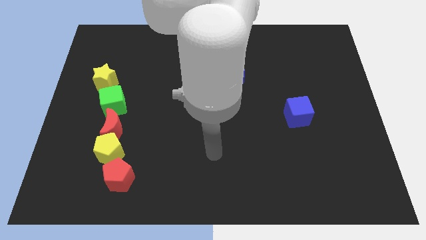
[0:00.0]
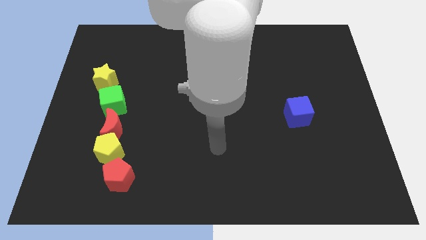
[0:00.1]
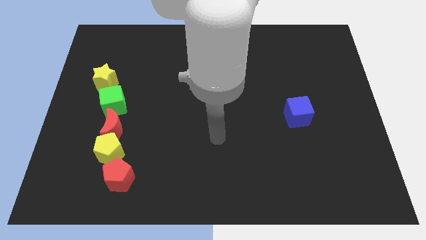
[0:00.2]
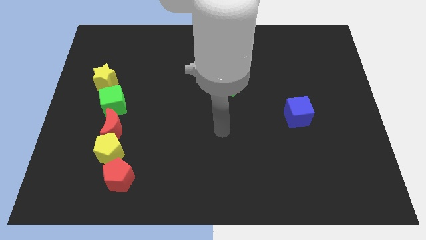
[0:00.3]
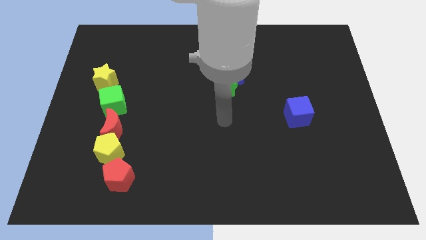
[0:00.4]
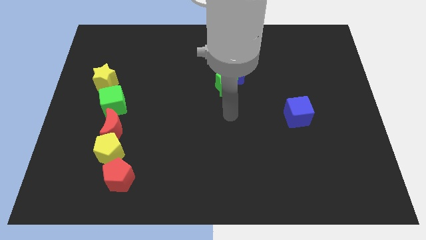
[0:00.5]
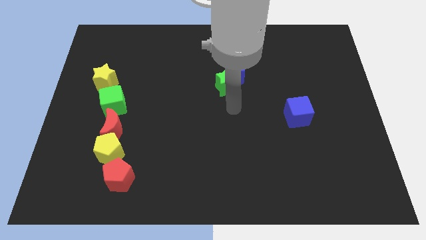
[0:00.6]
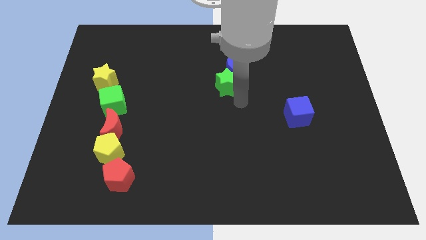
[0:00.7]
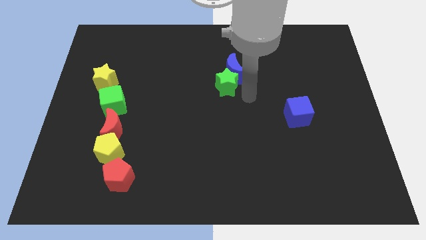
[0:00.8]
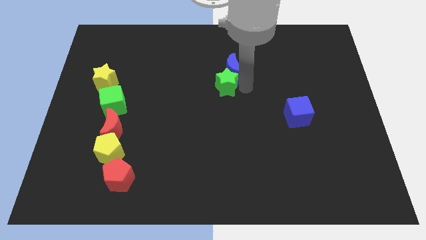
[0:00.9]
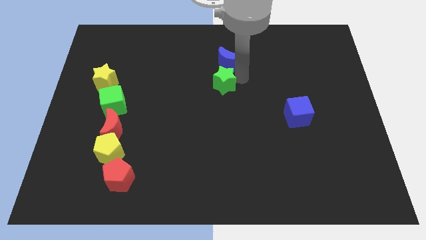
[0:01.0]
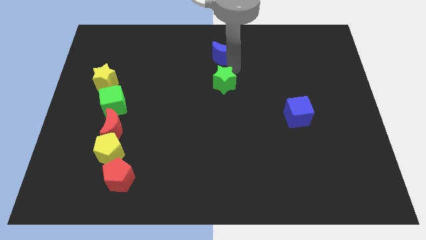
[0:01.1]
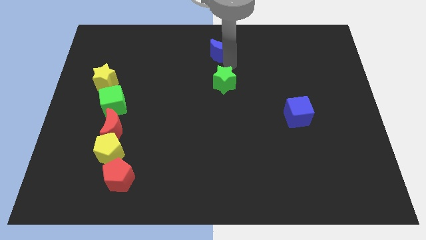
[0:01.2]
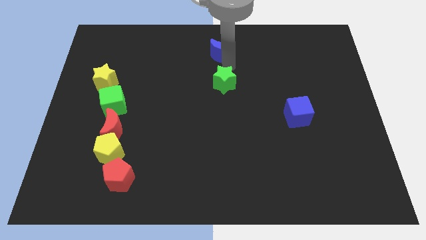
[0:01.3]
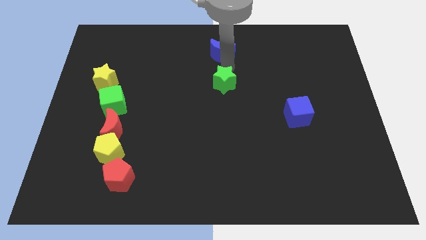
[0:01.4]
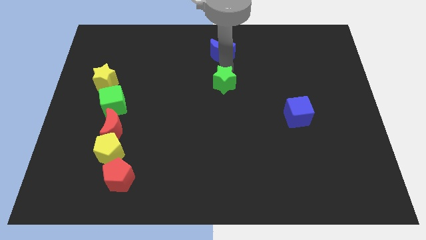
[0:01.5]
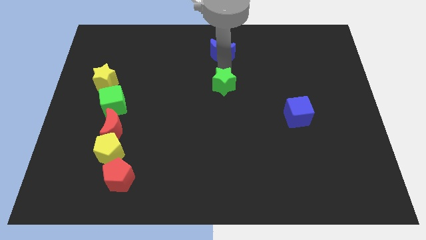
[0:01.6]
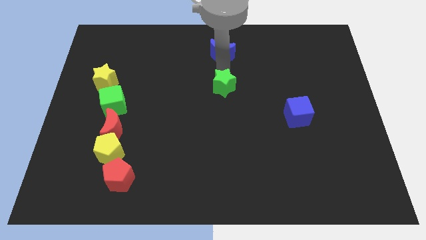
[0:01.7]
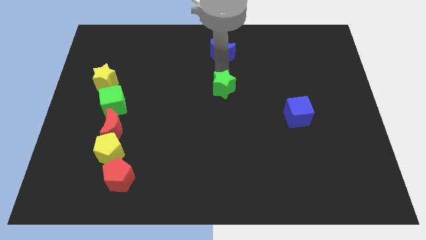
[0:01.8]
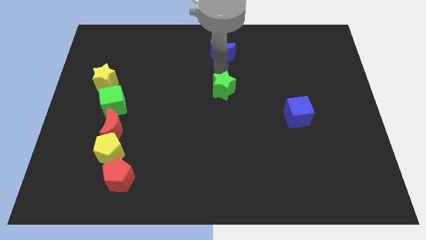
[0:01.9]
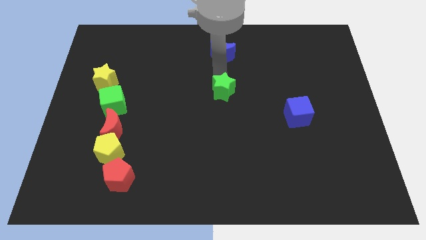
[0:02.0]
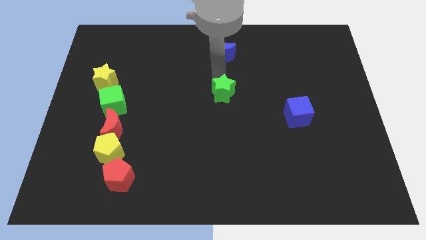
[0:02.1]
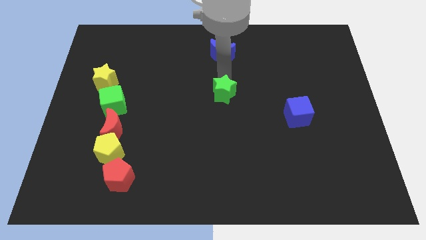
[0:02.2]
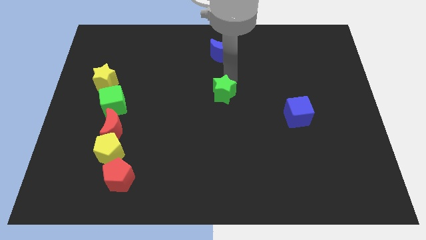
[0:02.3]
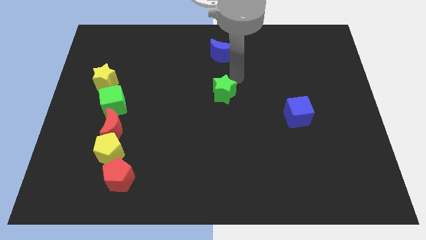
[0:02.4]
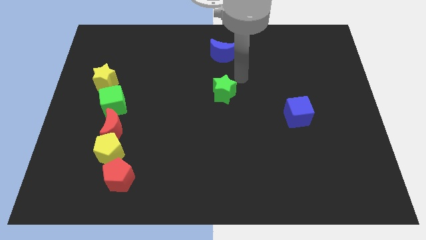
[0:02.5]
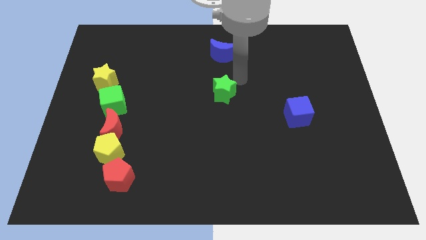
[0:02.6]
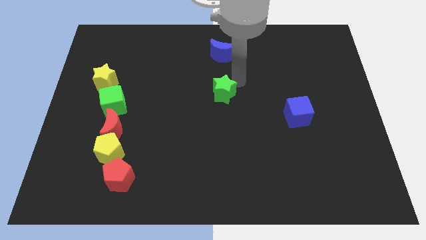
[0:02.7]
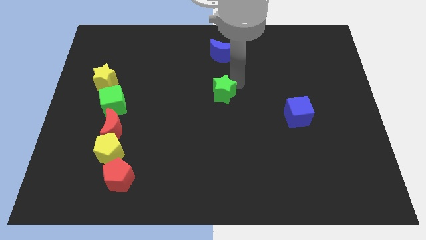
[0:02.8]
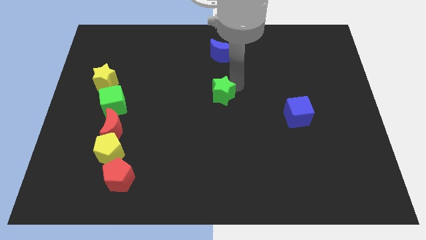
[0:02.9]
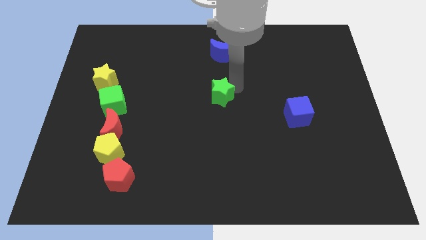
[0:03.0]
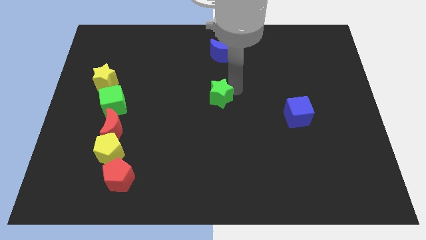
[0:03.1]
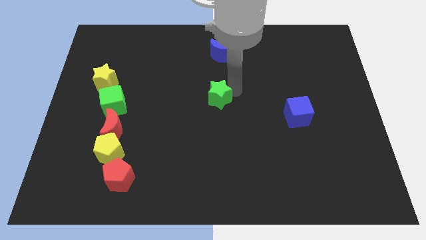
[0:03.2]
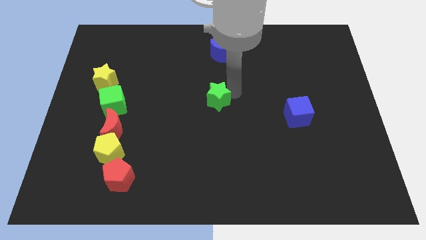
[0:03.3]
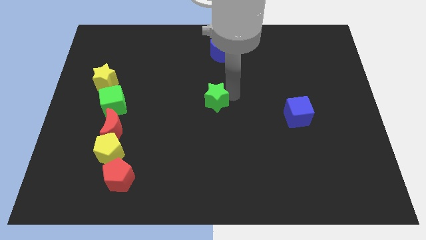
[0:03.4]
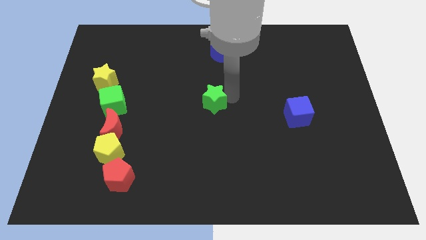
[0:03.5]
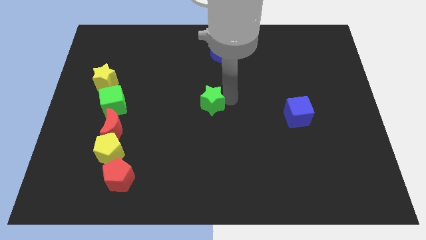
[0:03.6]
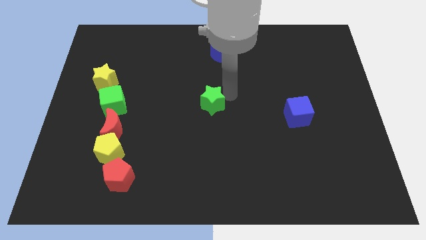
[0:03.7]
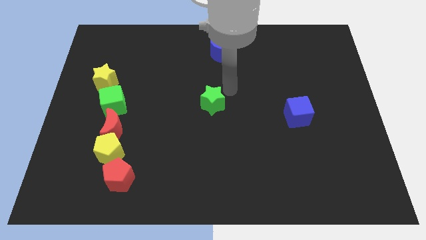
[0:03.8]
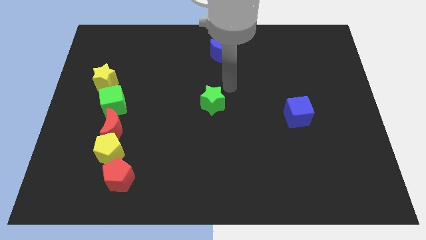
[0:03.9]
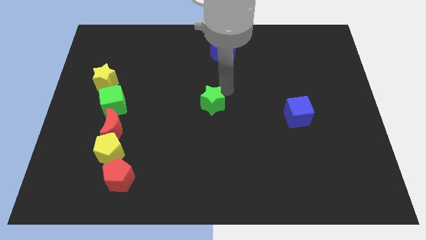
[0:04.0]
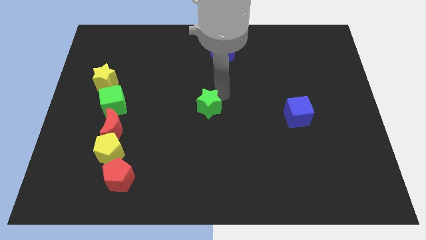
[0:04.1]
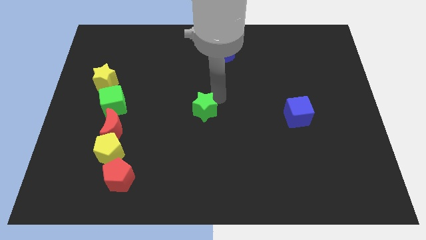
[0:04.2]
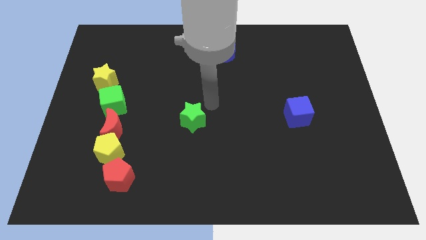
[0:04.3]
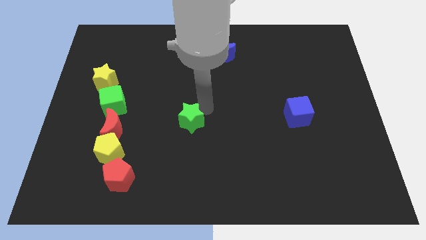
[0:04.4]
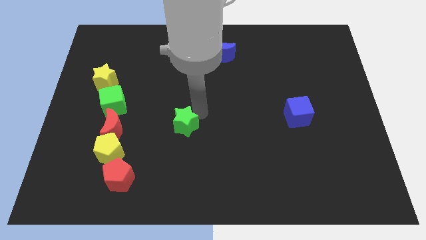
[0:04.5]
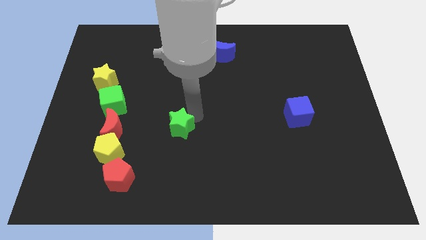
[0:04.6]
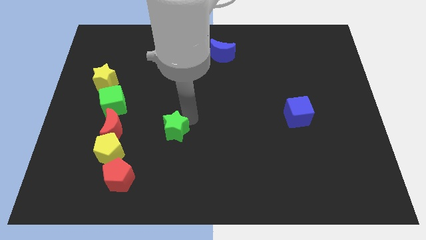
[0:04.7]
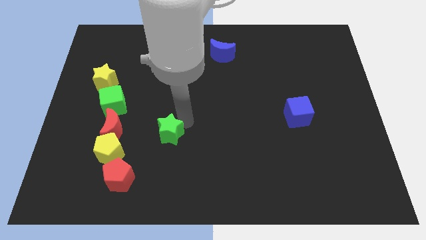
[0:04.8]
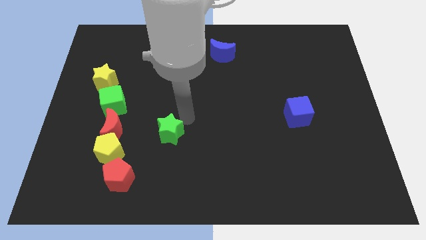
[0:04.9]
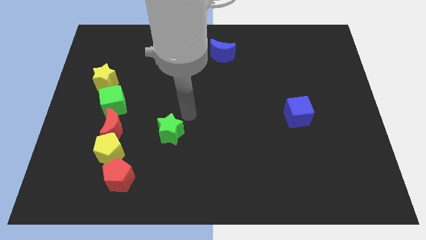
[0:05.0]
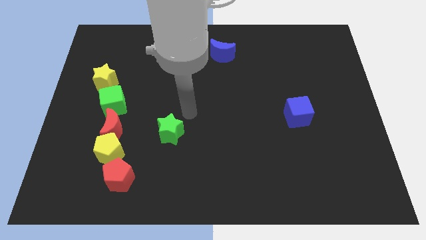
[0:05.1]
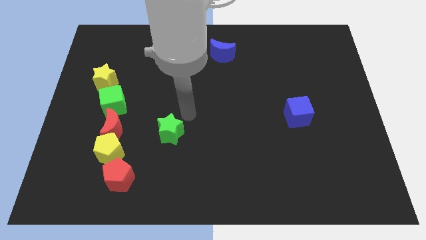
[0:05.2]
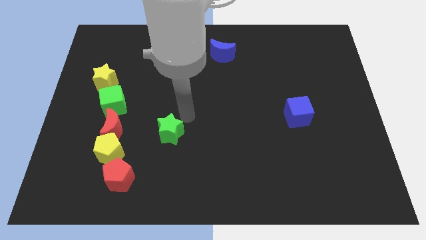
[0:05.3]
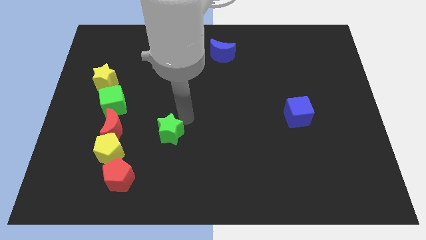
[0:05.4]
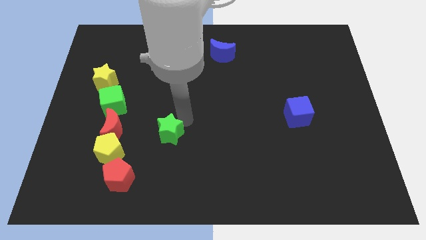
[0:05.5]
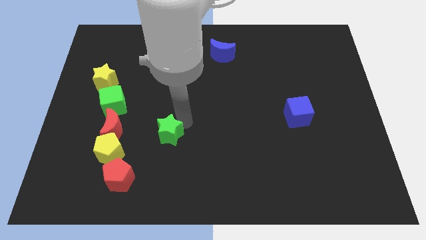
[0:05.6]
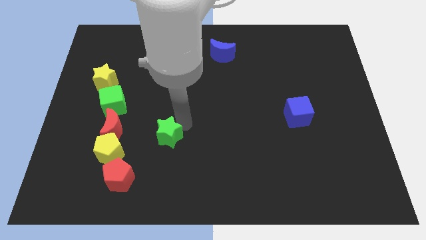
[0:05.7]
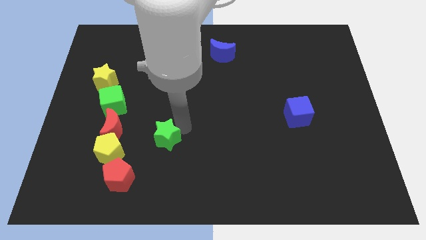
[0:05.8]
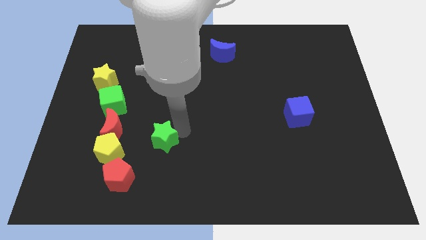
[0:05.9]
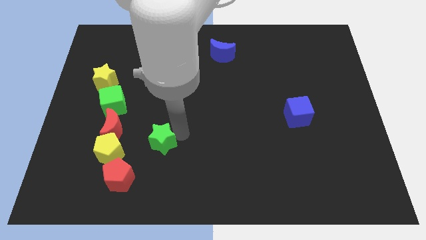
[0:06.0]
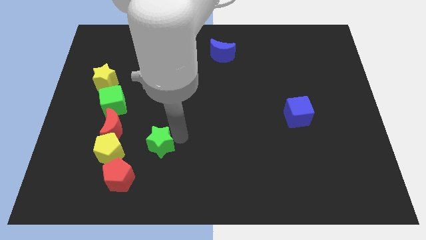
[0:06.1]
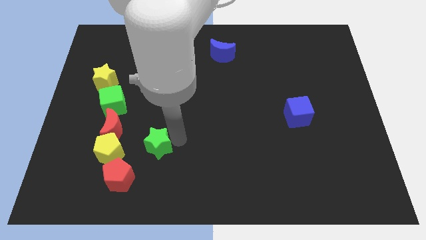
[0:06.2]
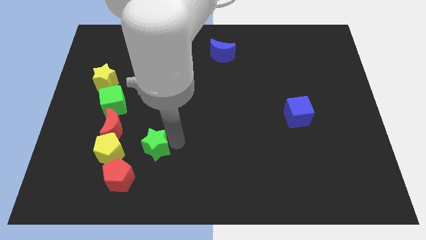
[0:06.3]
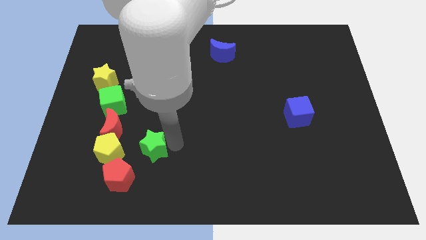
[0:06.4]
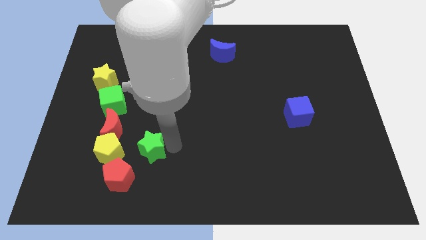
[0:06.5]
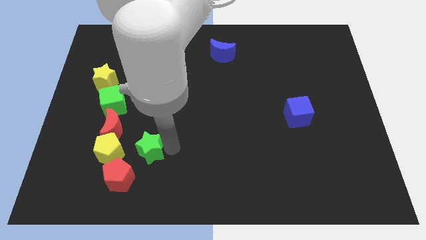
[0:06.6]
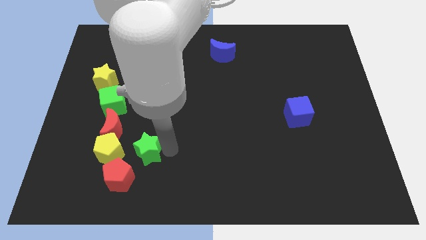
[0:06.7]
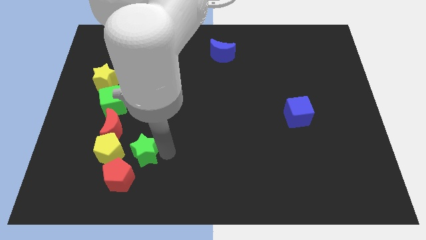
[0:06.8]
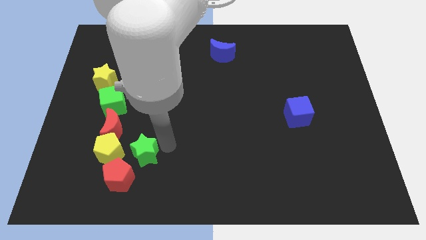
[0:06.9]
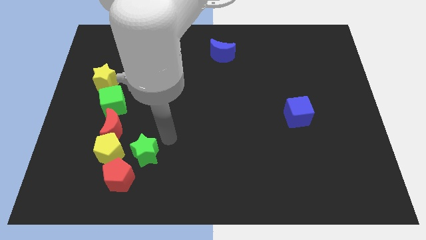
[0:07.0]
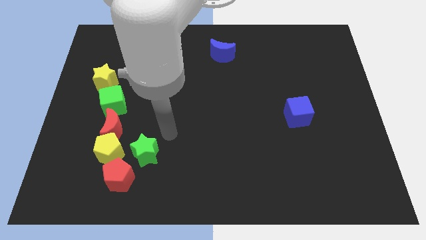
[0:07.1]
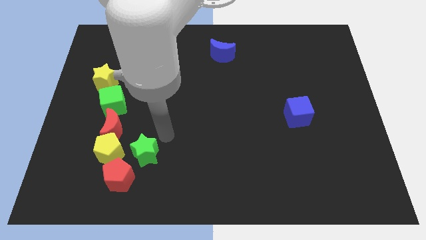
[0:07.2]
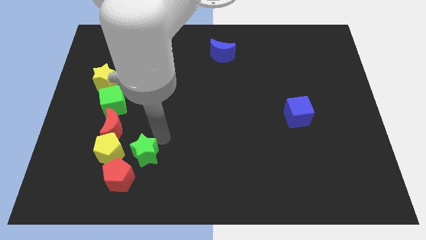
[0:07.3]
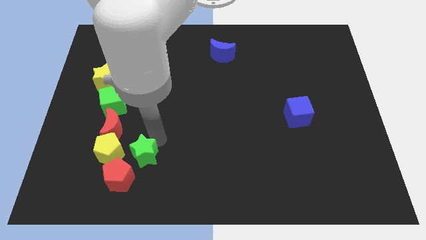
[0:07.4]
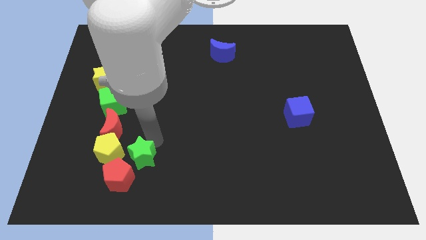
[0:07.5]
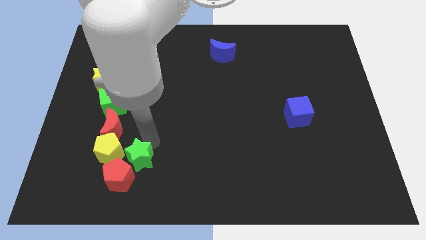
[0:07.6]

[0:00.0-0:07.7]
slide the green star to the red pentagon
